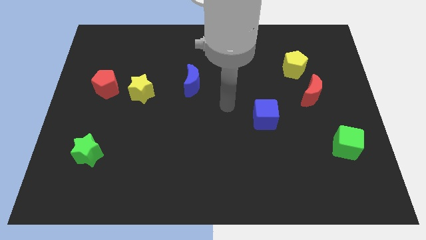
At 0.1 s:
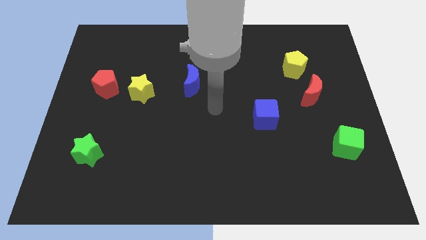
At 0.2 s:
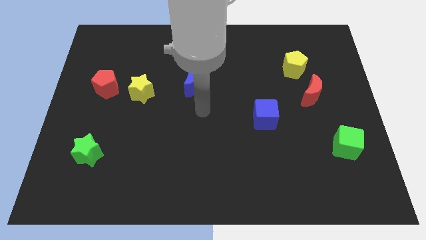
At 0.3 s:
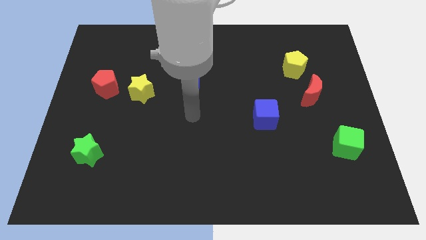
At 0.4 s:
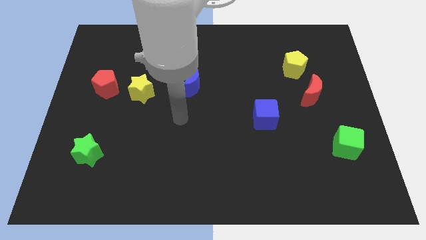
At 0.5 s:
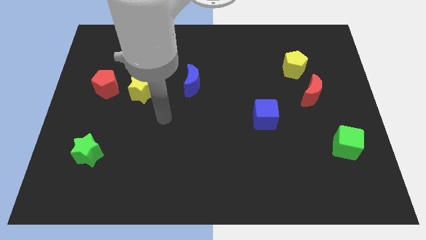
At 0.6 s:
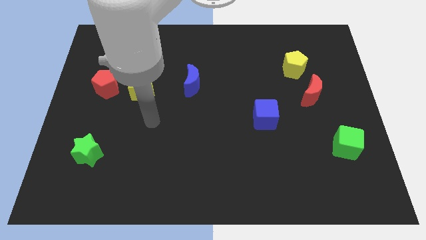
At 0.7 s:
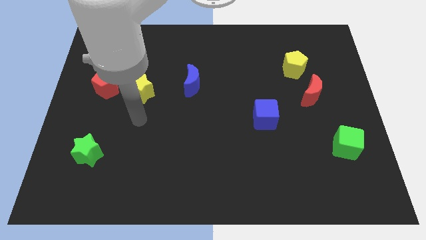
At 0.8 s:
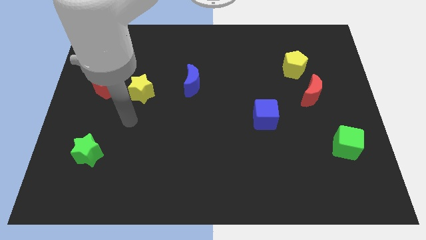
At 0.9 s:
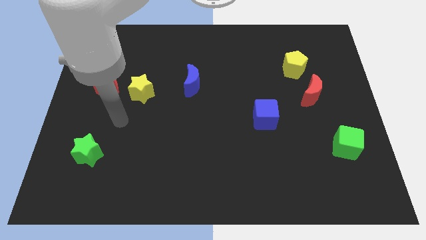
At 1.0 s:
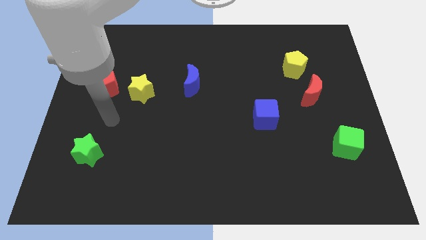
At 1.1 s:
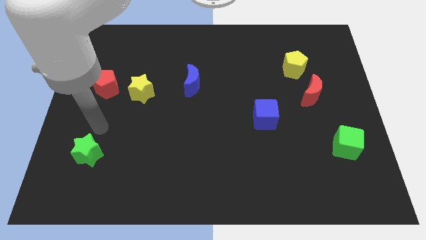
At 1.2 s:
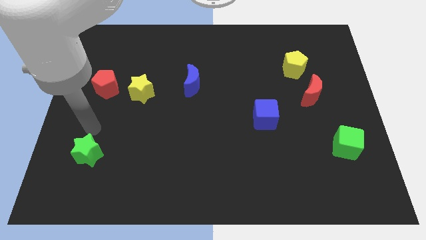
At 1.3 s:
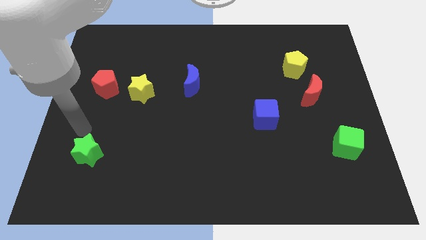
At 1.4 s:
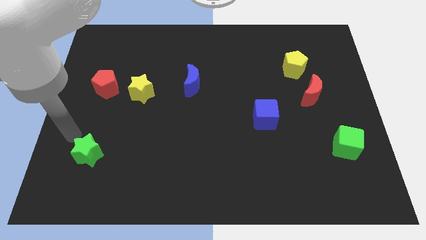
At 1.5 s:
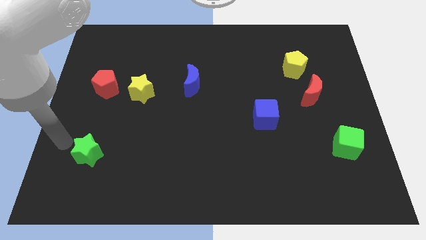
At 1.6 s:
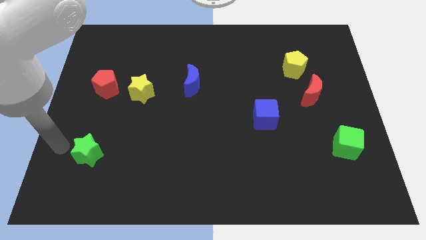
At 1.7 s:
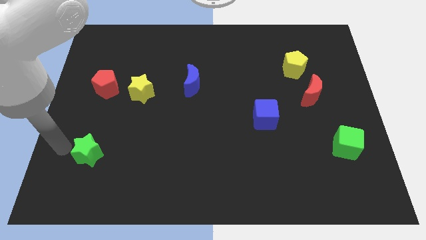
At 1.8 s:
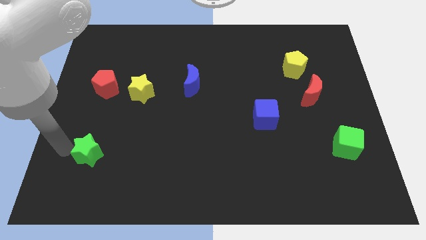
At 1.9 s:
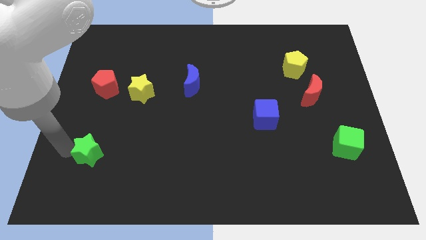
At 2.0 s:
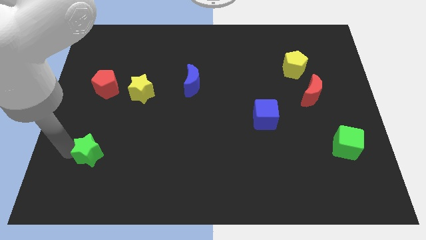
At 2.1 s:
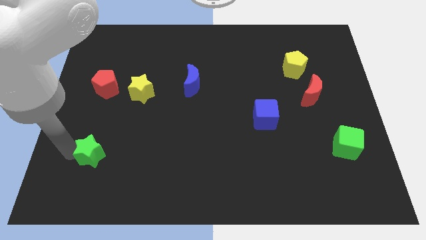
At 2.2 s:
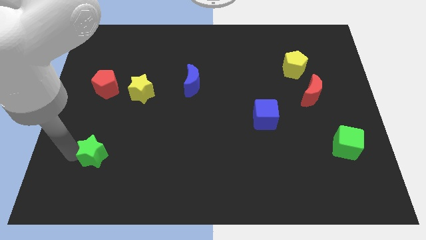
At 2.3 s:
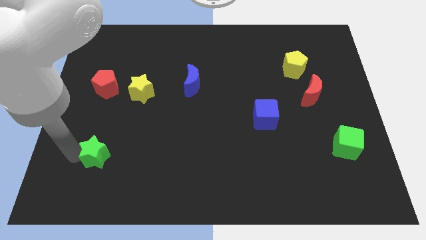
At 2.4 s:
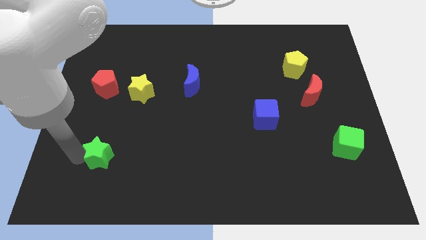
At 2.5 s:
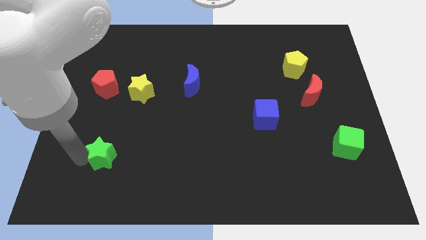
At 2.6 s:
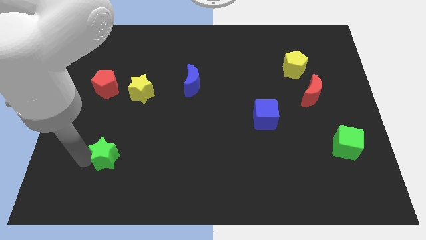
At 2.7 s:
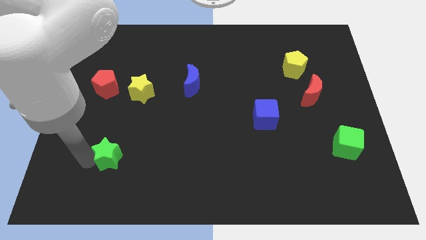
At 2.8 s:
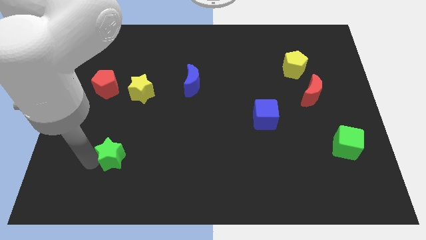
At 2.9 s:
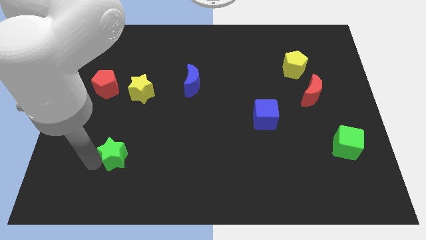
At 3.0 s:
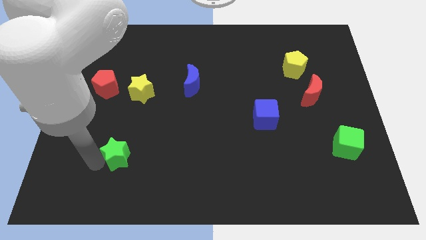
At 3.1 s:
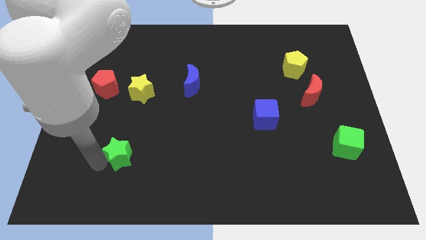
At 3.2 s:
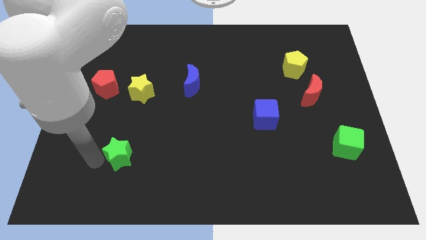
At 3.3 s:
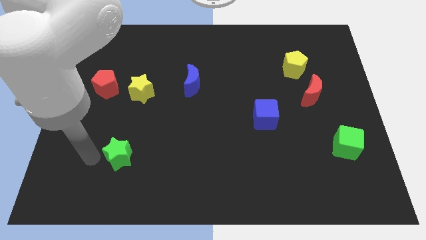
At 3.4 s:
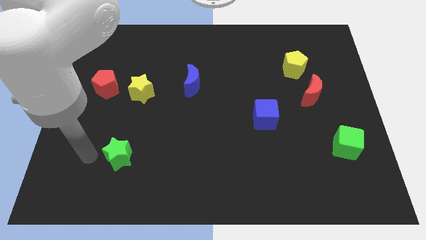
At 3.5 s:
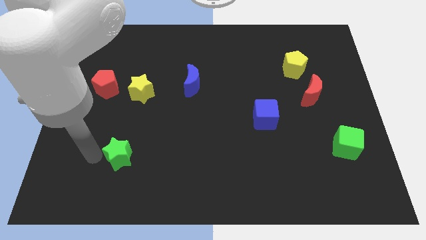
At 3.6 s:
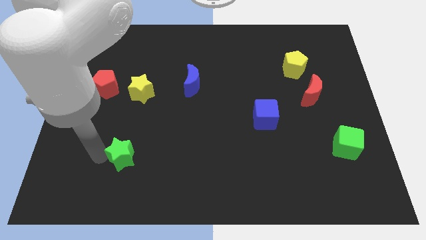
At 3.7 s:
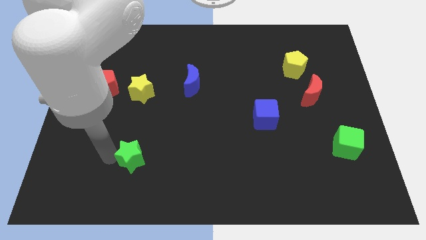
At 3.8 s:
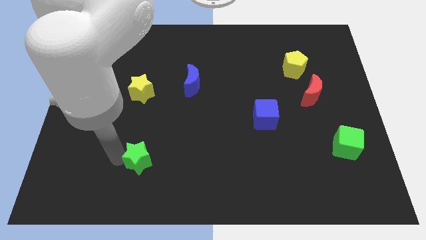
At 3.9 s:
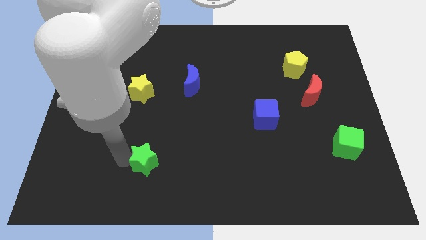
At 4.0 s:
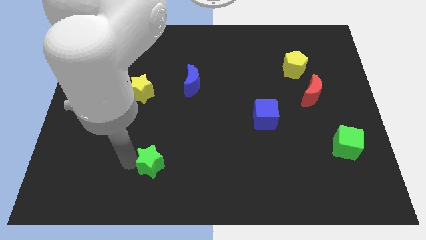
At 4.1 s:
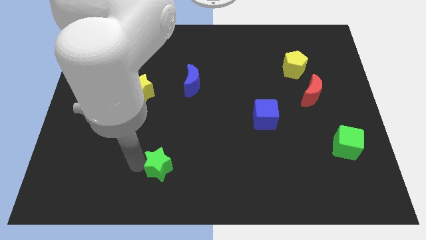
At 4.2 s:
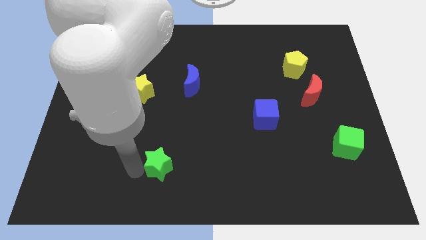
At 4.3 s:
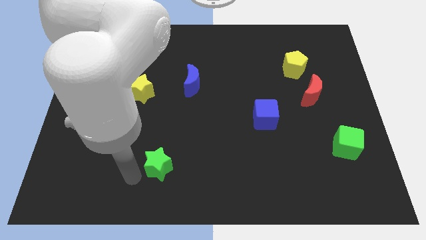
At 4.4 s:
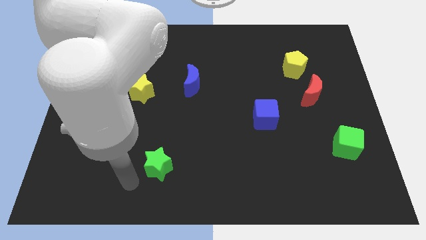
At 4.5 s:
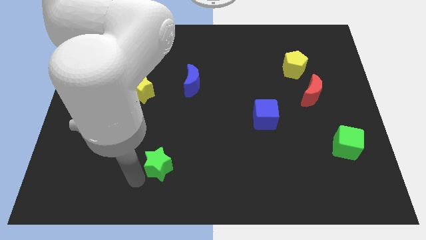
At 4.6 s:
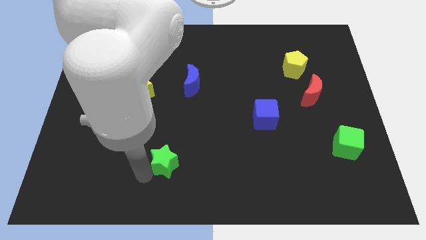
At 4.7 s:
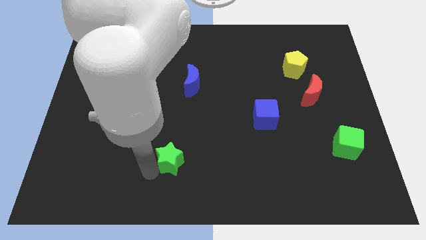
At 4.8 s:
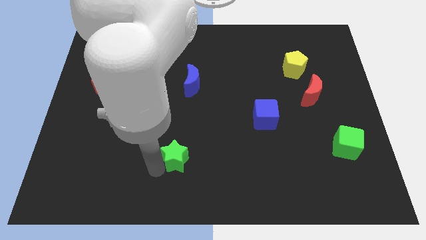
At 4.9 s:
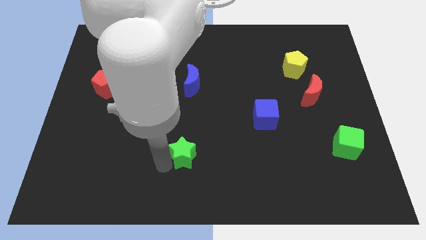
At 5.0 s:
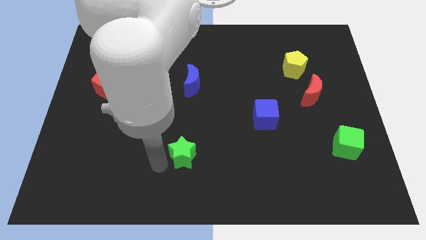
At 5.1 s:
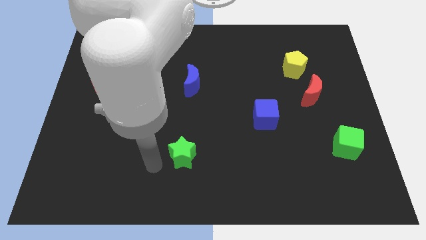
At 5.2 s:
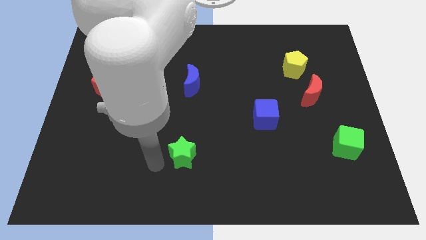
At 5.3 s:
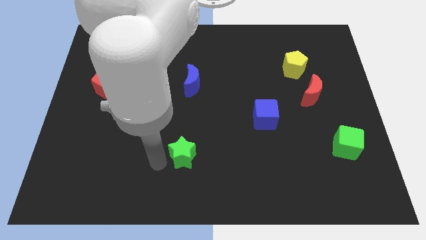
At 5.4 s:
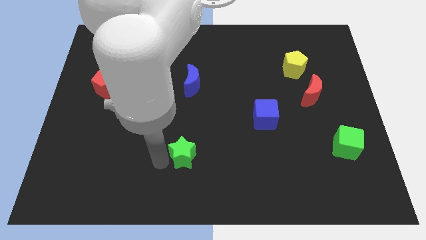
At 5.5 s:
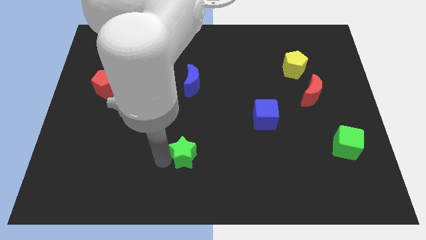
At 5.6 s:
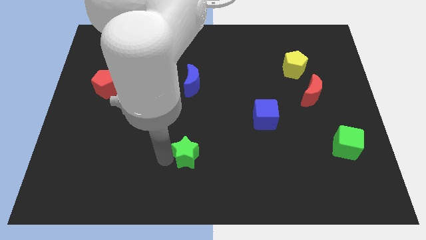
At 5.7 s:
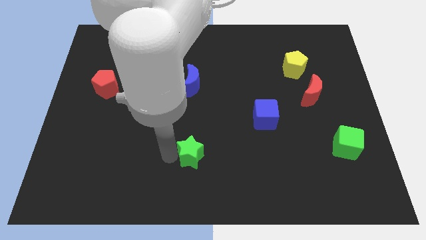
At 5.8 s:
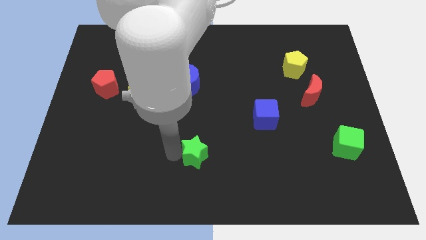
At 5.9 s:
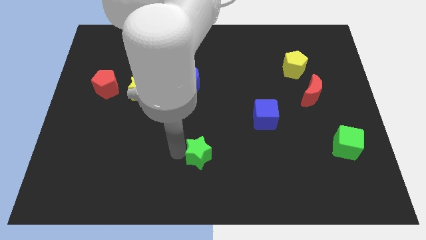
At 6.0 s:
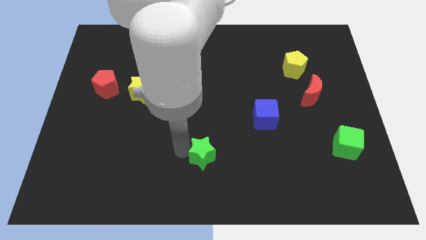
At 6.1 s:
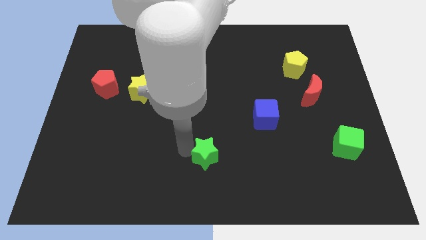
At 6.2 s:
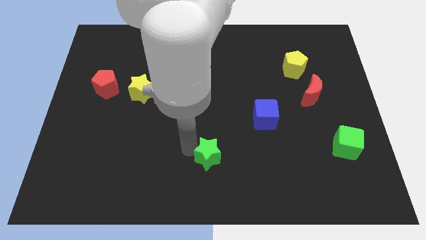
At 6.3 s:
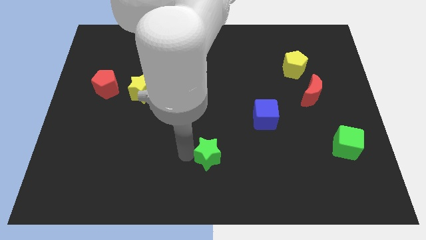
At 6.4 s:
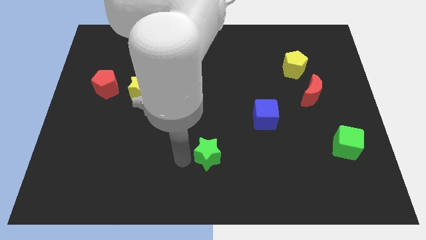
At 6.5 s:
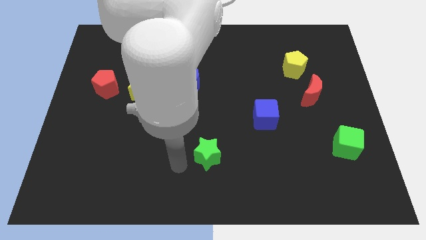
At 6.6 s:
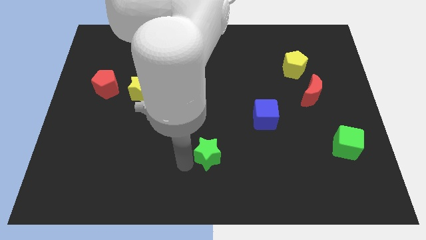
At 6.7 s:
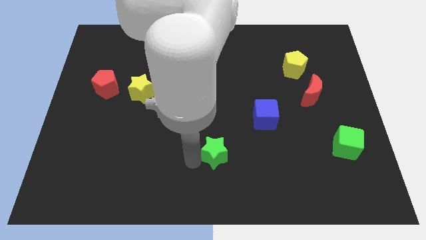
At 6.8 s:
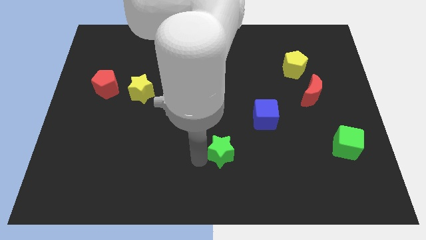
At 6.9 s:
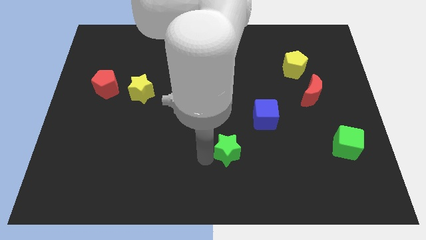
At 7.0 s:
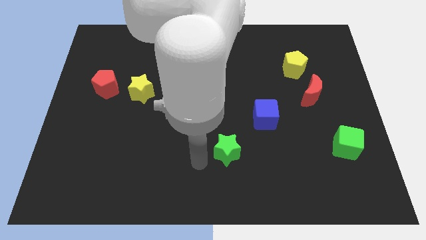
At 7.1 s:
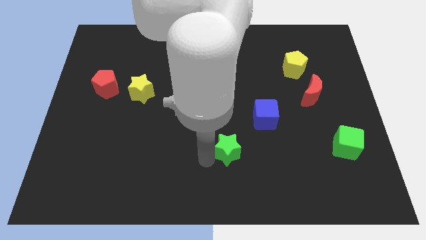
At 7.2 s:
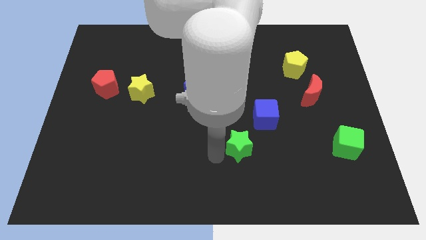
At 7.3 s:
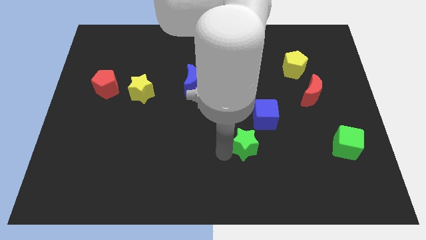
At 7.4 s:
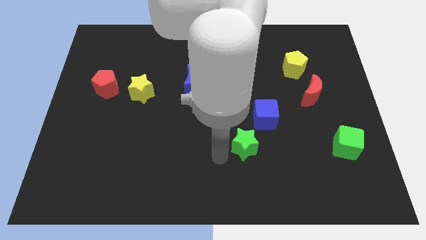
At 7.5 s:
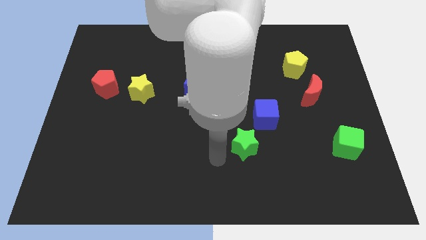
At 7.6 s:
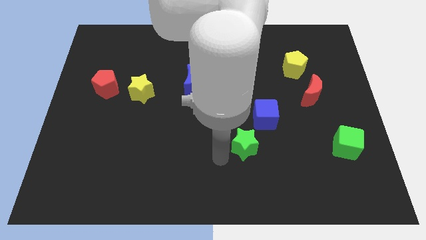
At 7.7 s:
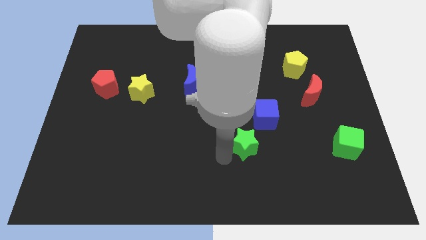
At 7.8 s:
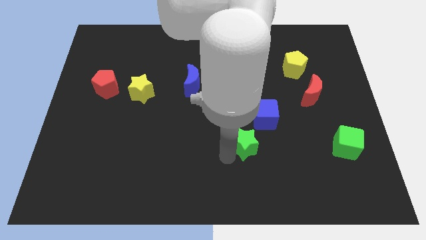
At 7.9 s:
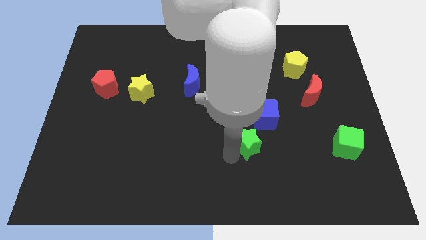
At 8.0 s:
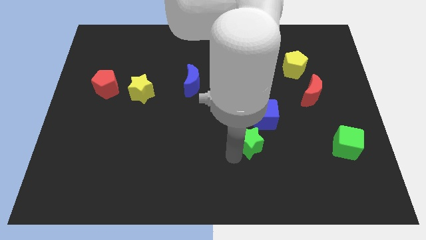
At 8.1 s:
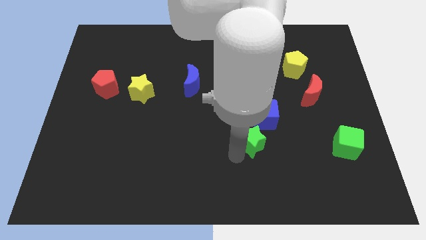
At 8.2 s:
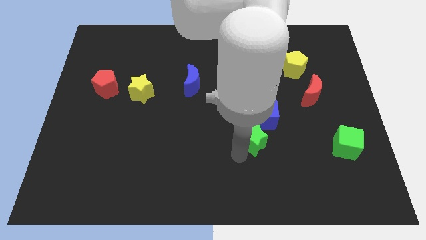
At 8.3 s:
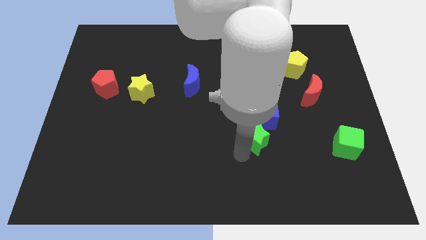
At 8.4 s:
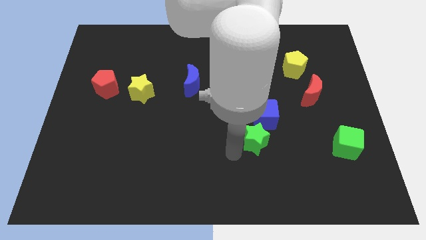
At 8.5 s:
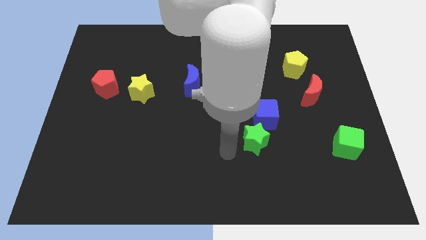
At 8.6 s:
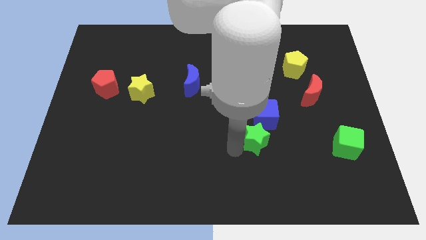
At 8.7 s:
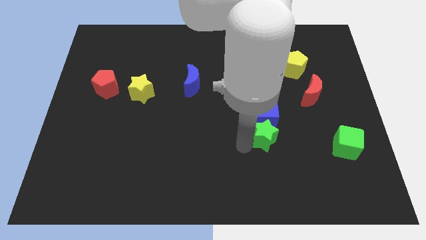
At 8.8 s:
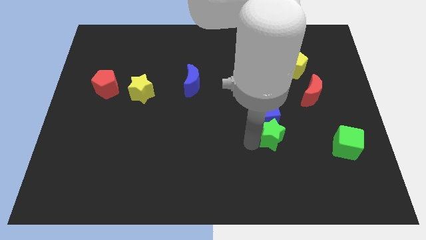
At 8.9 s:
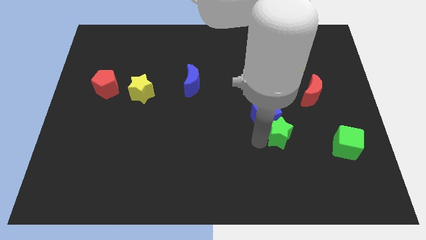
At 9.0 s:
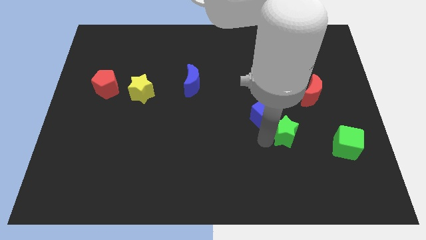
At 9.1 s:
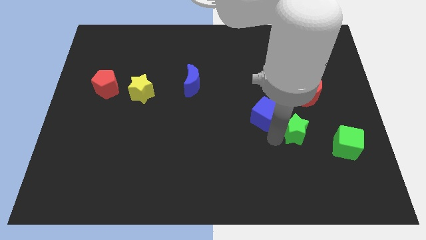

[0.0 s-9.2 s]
put the green star just right of the blue cube
